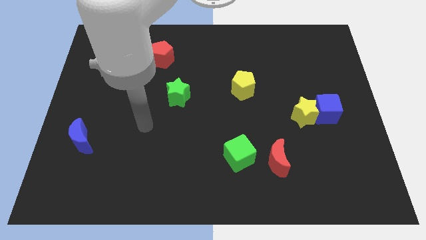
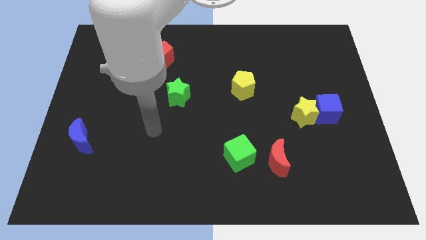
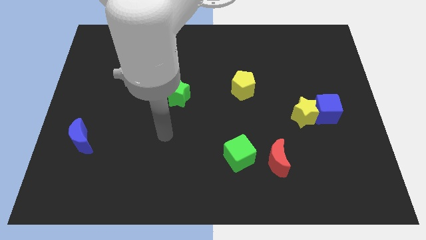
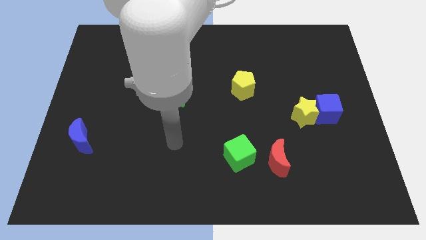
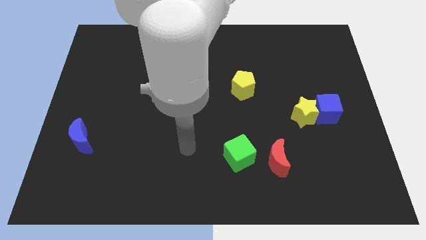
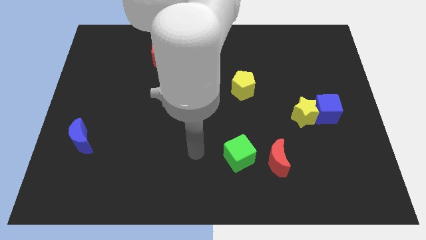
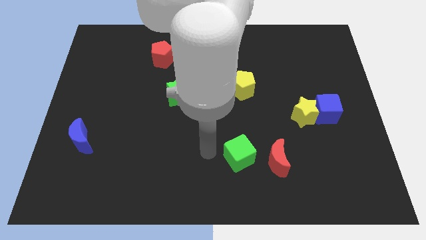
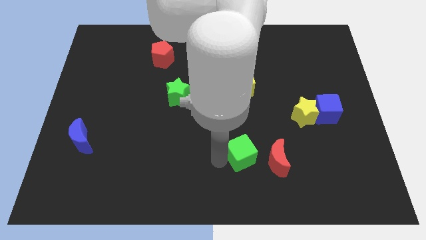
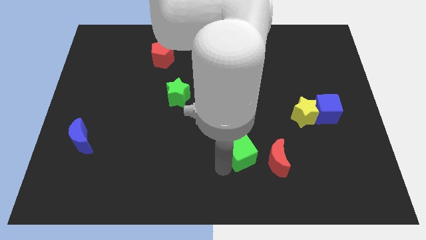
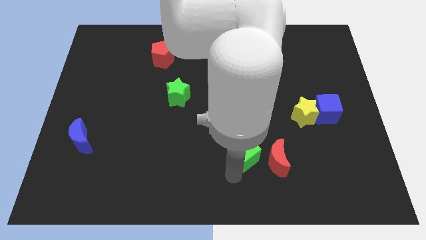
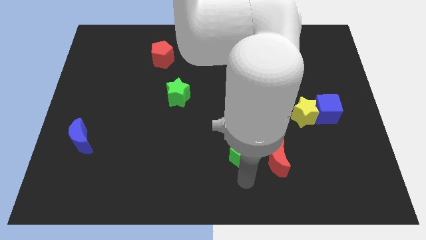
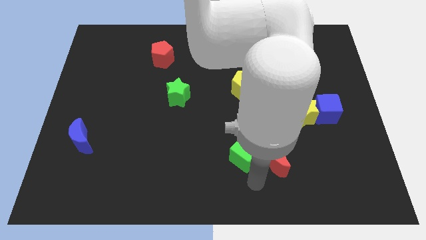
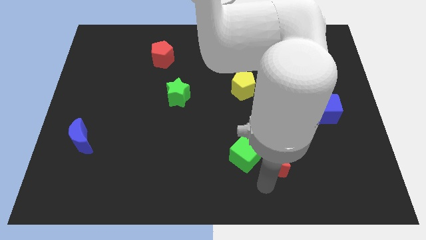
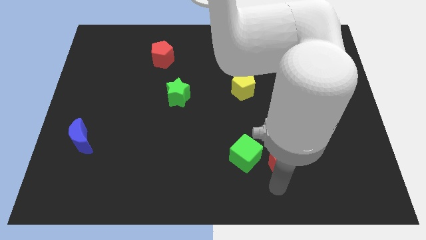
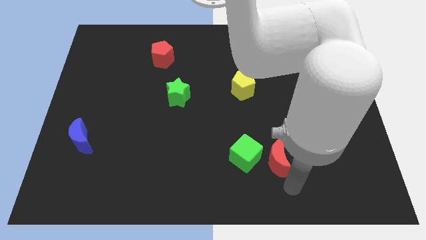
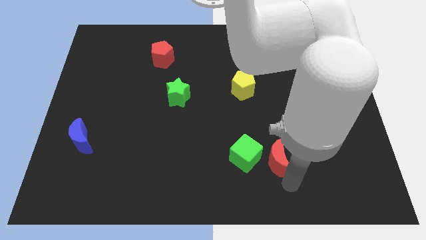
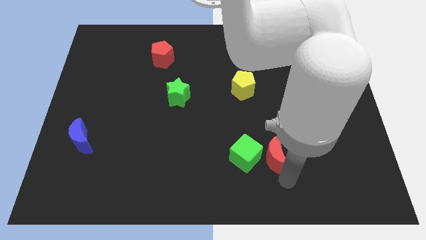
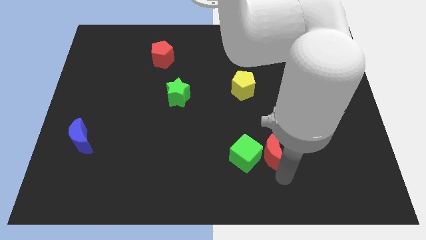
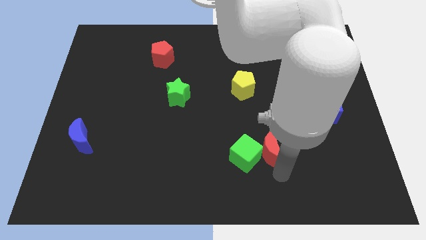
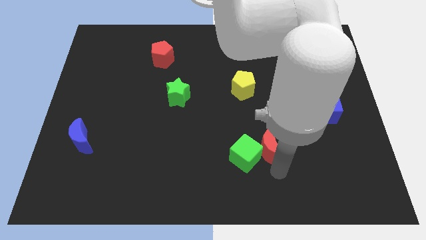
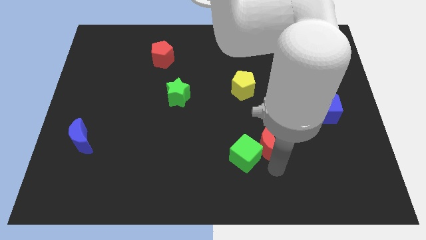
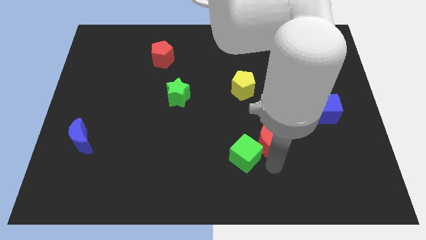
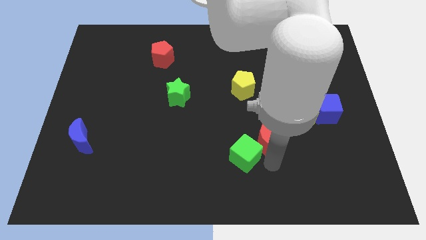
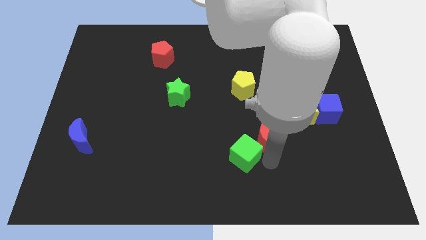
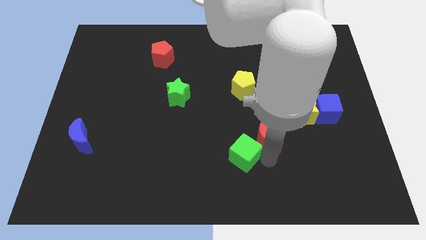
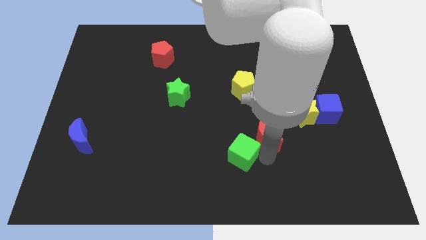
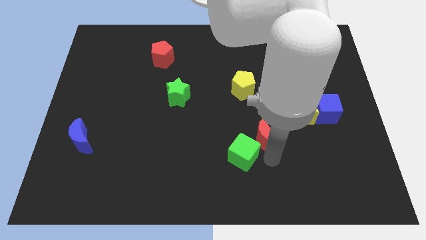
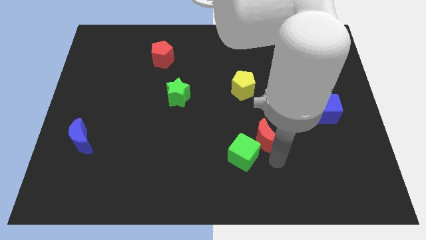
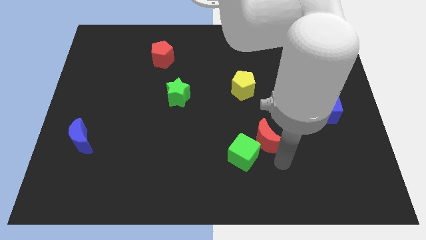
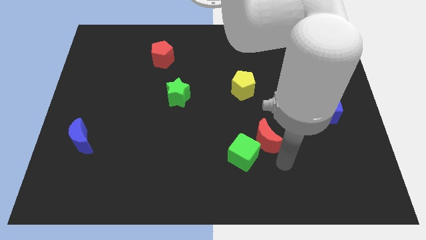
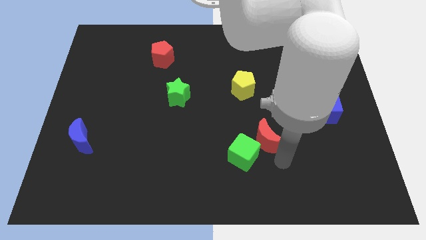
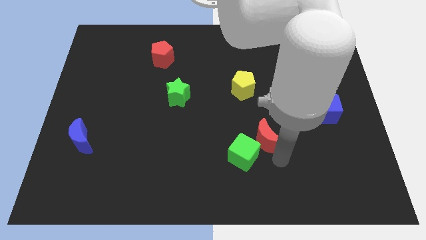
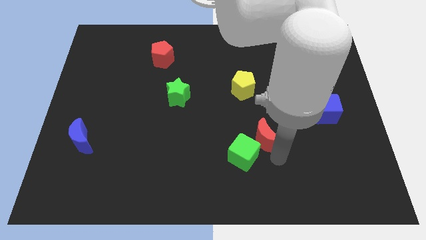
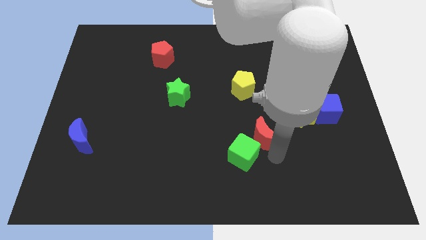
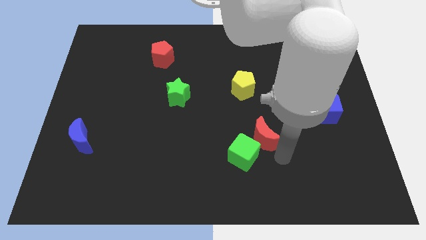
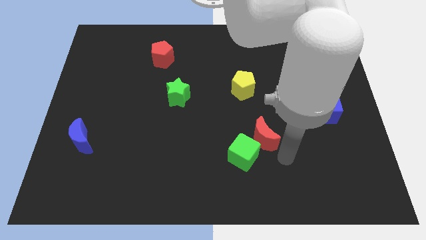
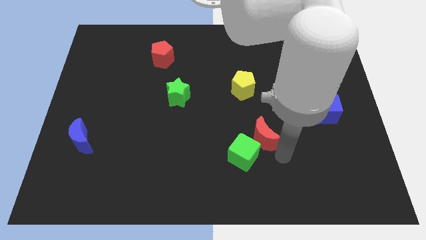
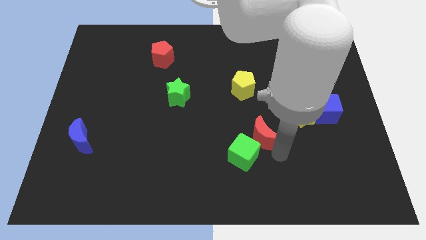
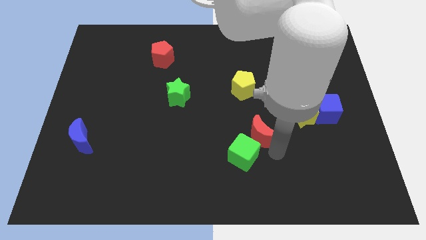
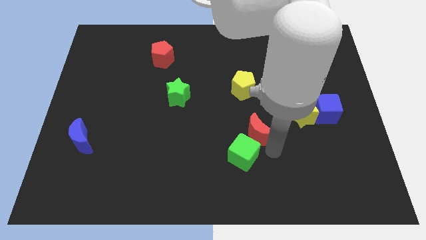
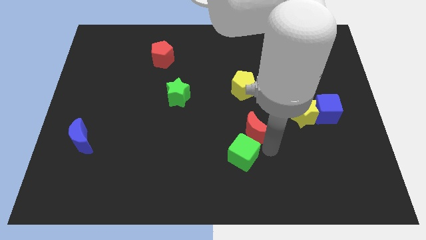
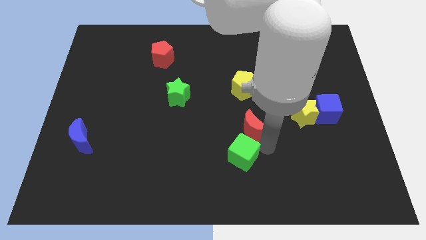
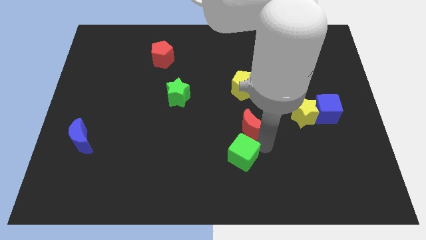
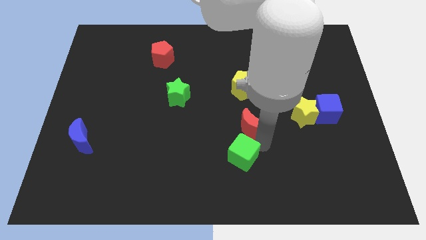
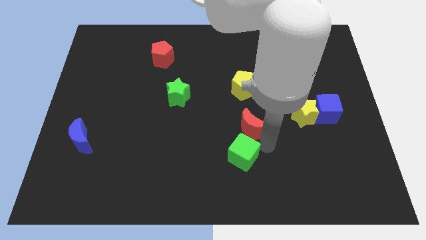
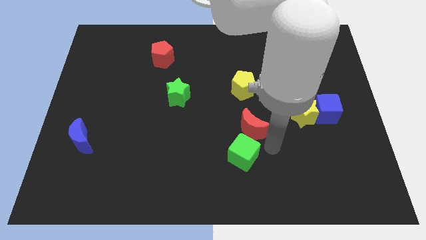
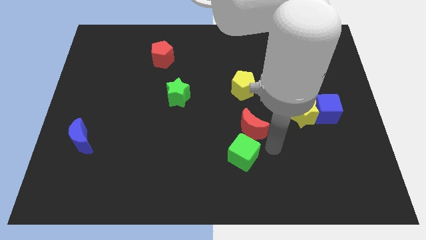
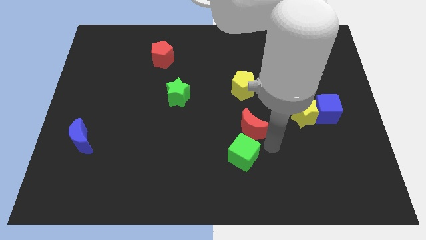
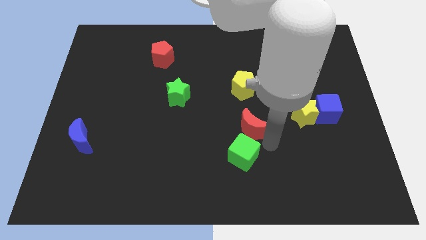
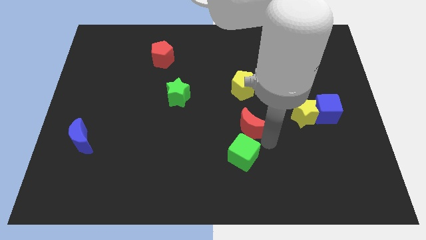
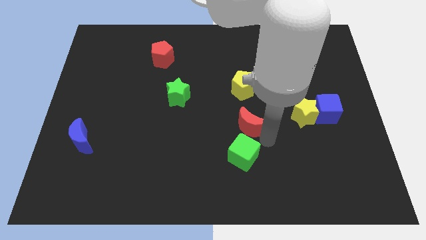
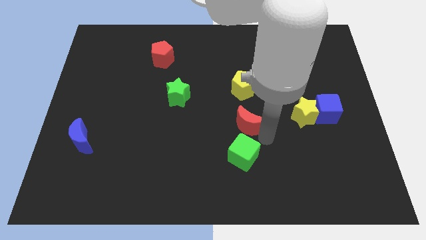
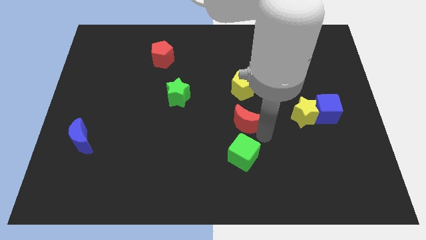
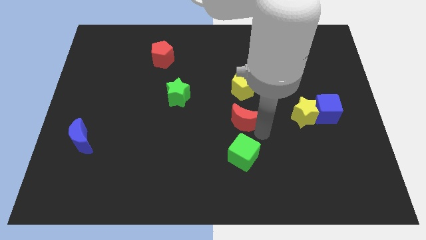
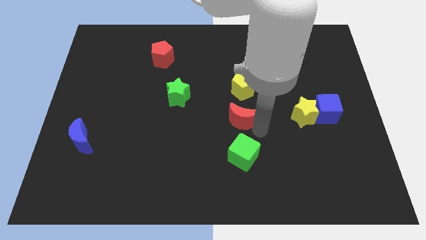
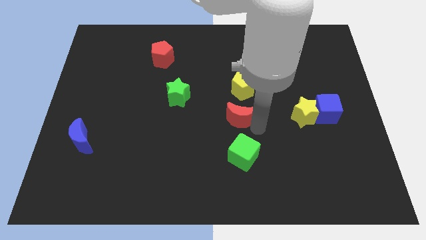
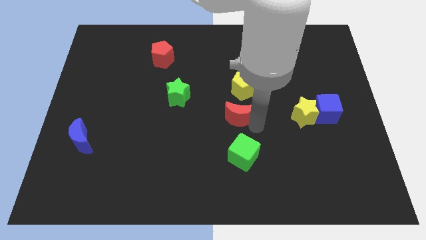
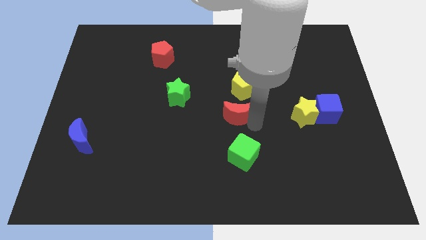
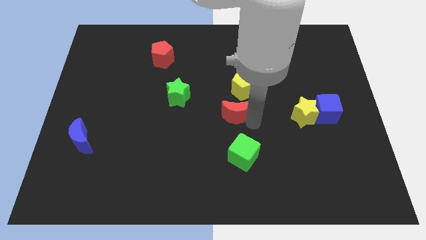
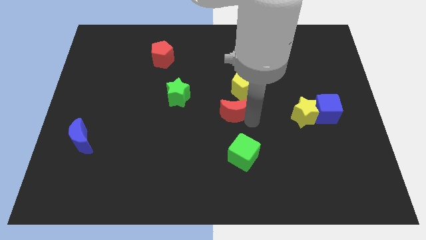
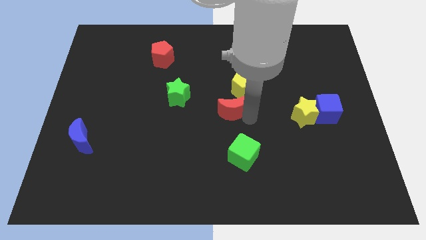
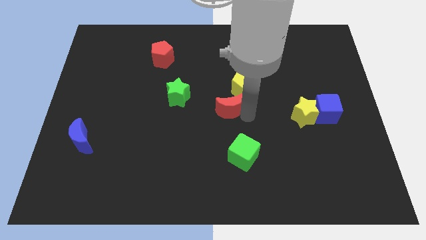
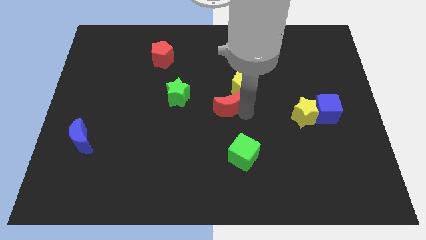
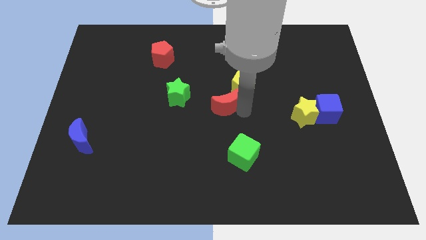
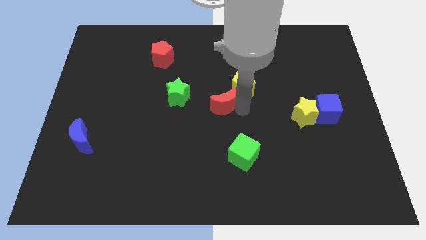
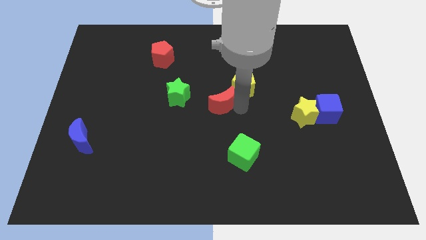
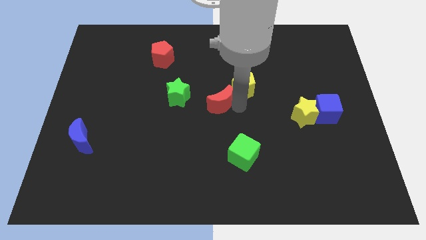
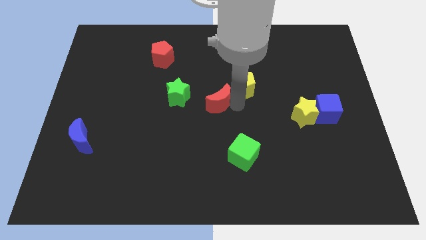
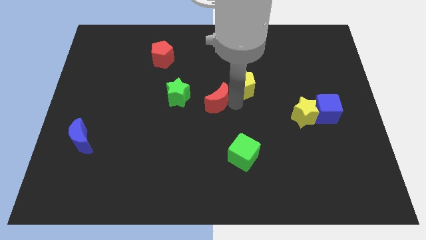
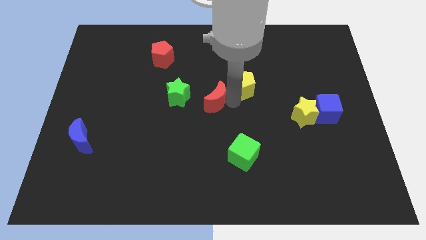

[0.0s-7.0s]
slide the red moon upwards and left

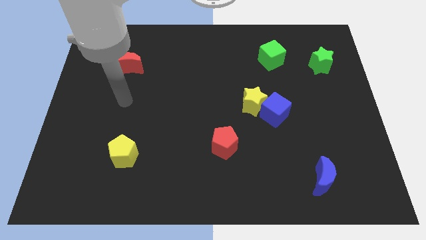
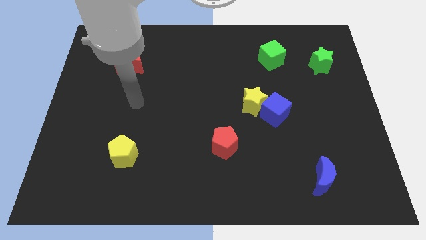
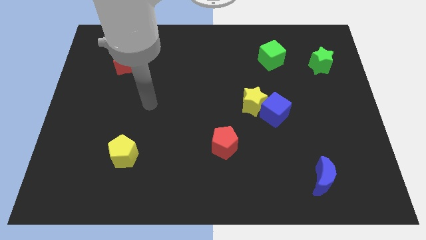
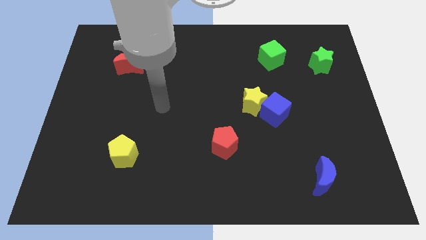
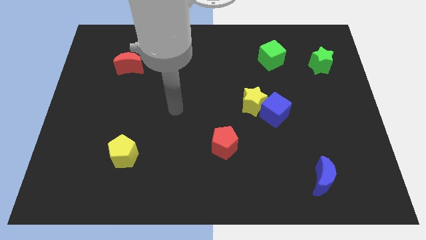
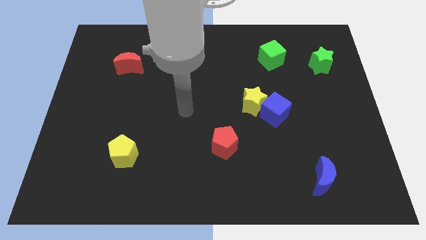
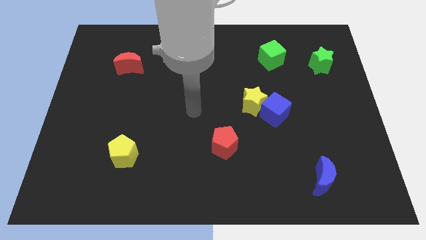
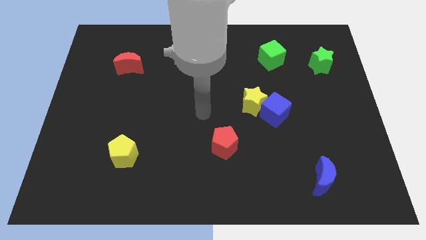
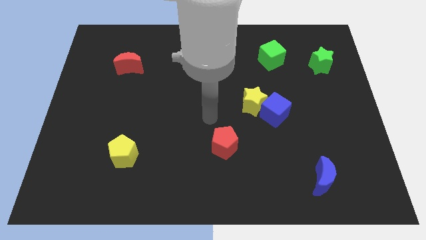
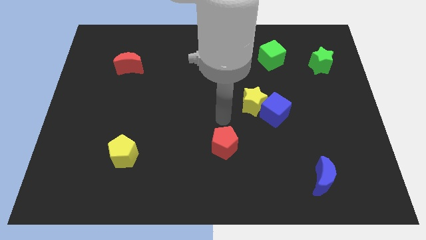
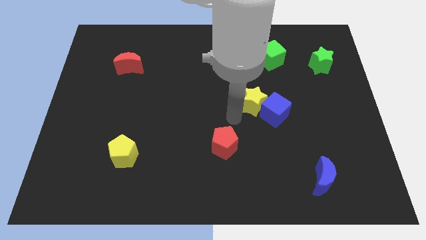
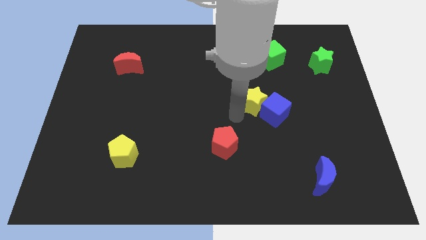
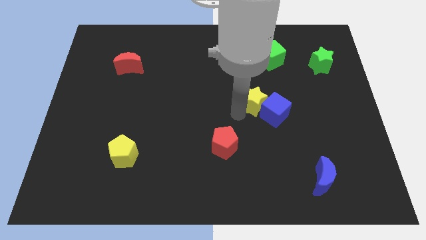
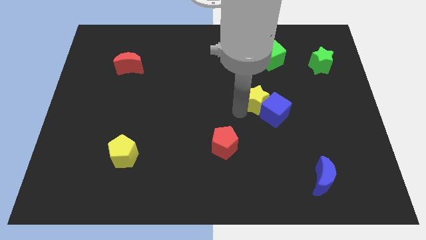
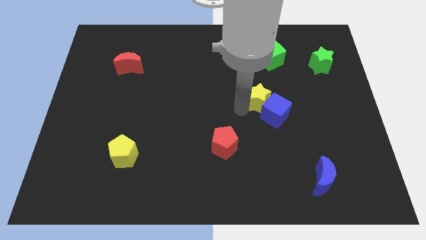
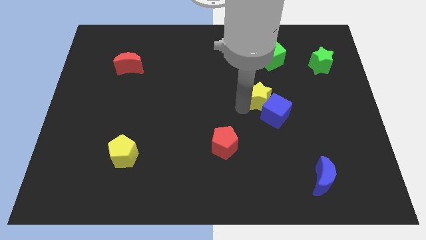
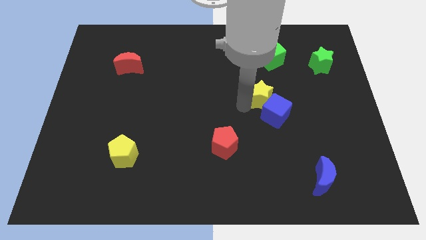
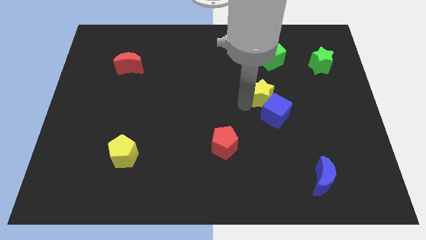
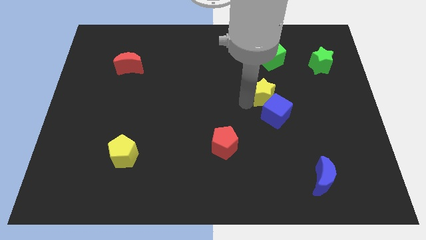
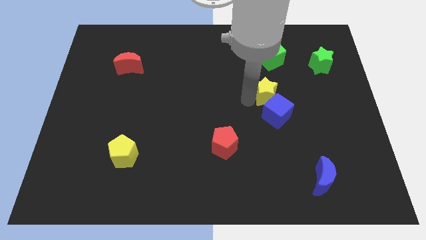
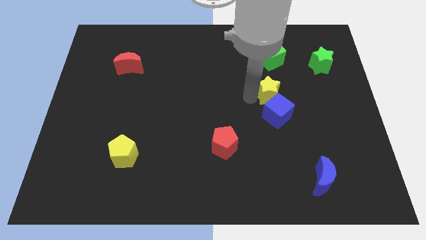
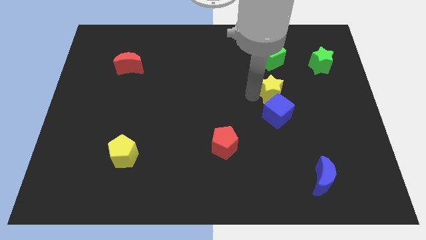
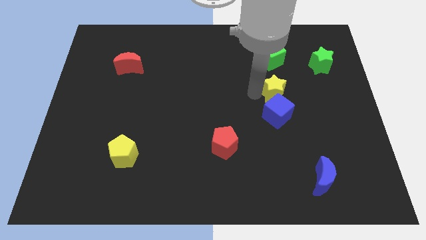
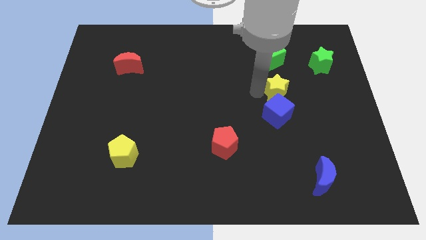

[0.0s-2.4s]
slightly push the yellow star diagonally upwards and to the right
